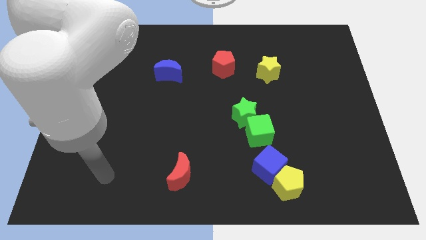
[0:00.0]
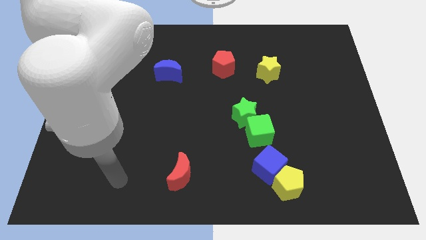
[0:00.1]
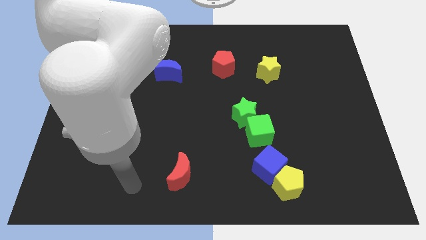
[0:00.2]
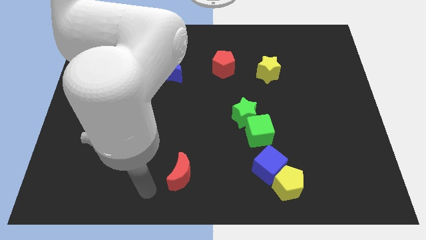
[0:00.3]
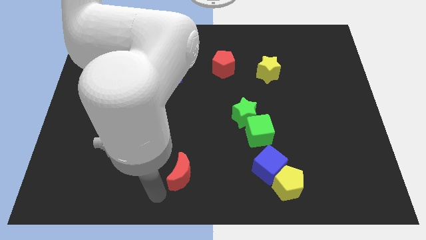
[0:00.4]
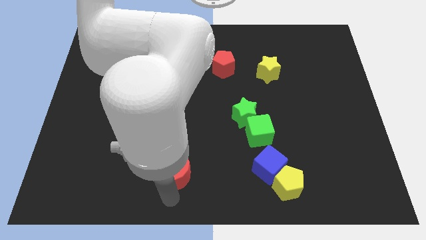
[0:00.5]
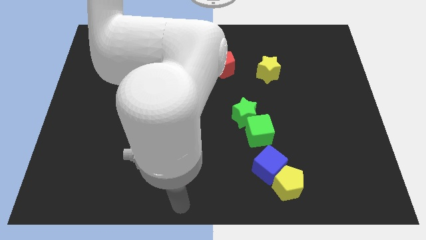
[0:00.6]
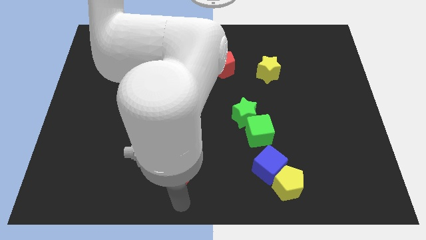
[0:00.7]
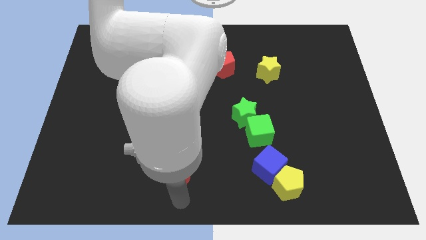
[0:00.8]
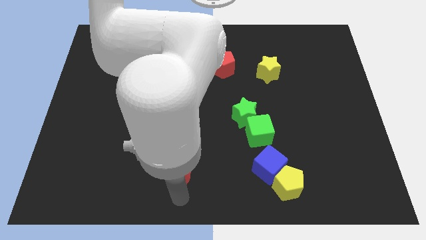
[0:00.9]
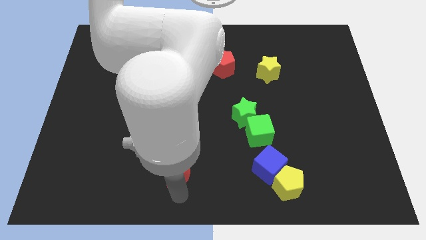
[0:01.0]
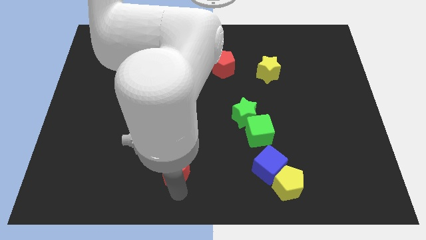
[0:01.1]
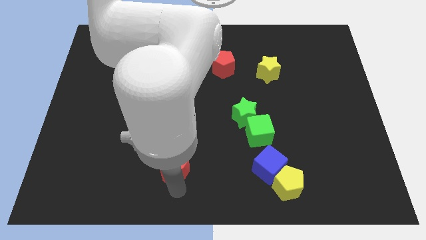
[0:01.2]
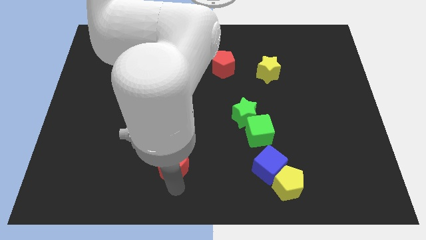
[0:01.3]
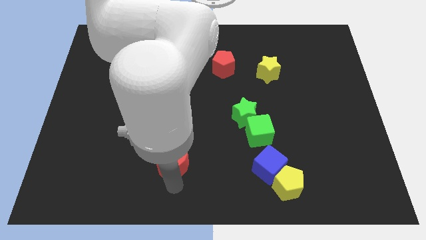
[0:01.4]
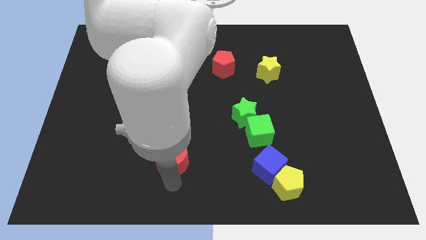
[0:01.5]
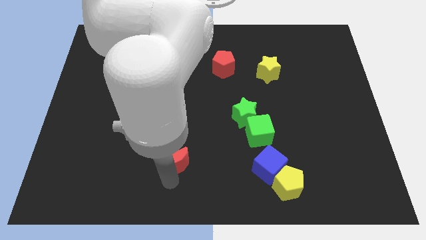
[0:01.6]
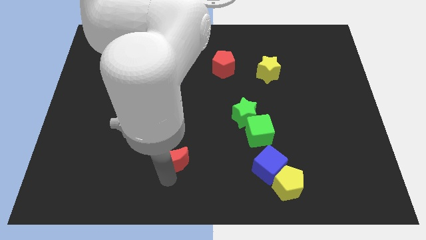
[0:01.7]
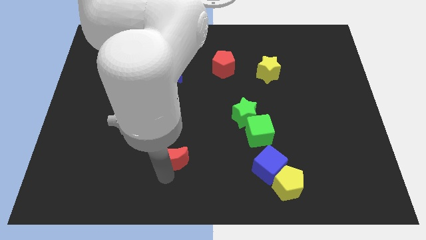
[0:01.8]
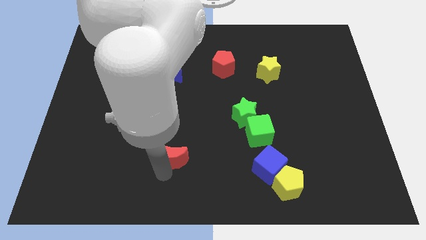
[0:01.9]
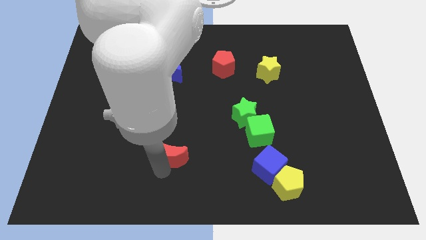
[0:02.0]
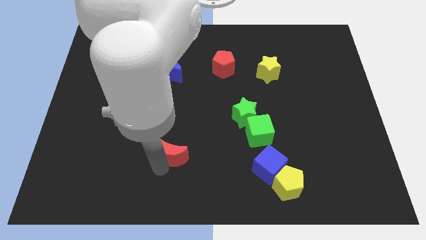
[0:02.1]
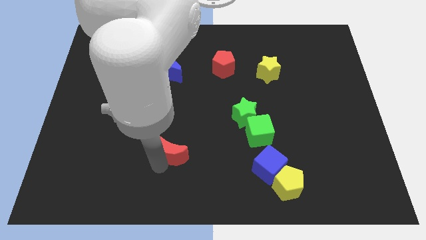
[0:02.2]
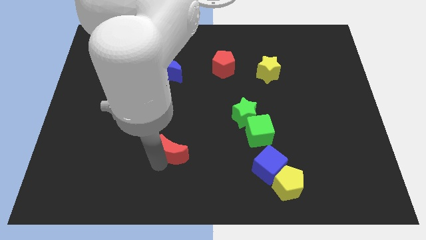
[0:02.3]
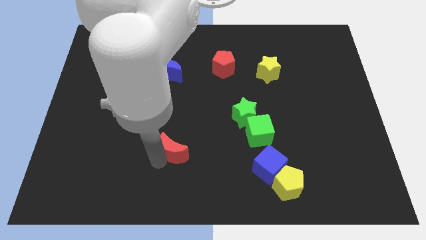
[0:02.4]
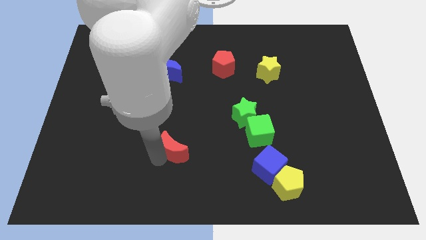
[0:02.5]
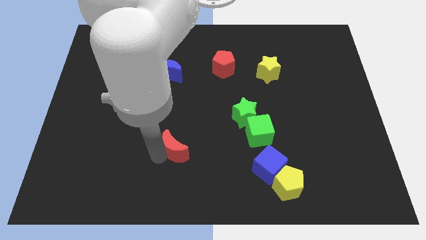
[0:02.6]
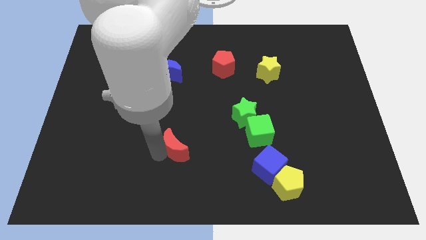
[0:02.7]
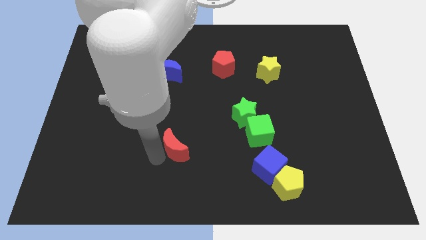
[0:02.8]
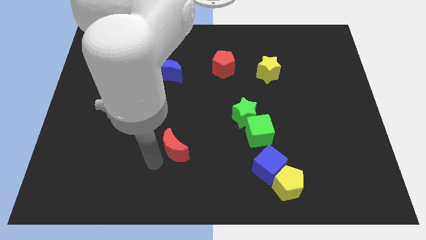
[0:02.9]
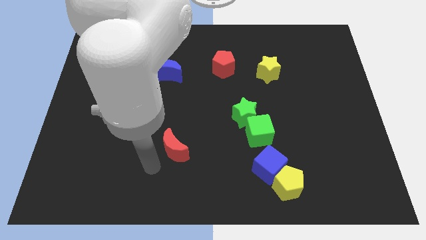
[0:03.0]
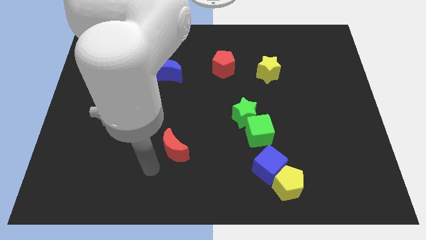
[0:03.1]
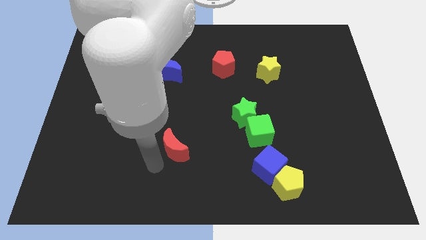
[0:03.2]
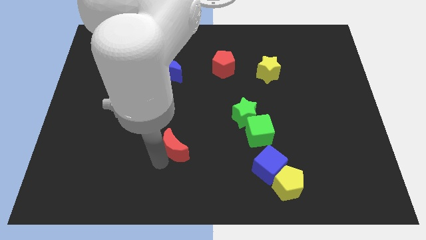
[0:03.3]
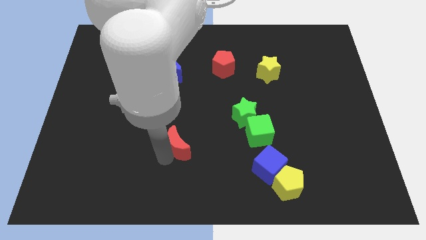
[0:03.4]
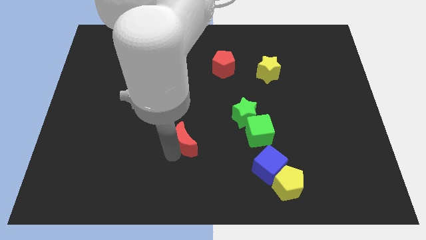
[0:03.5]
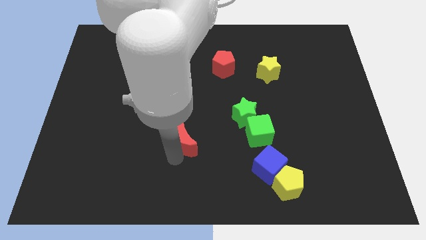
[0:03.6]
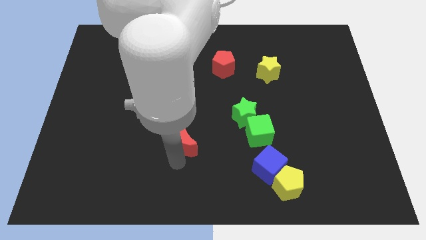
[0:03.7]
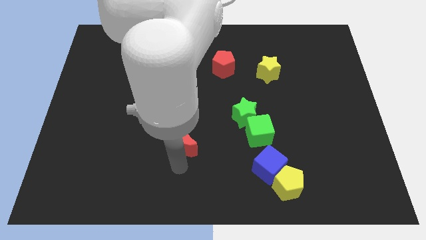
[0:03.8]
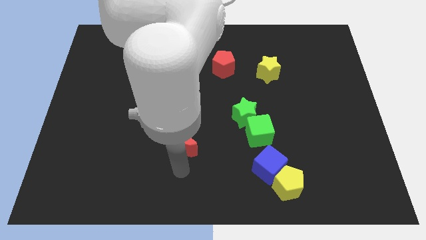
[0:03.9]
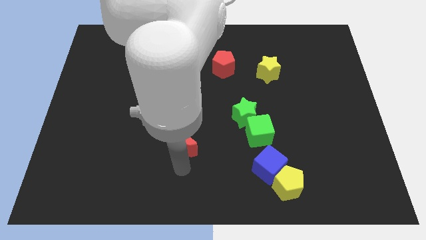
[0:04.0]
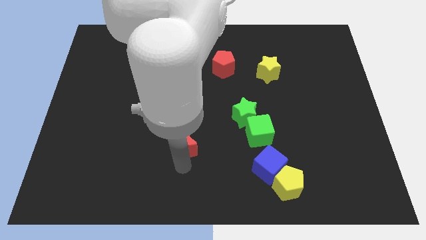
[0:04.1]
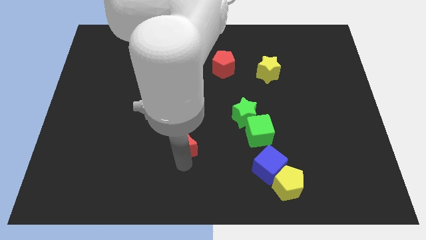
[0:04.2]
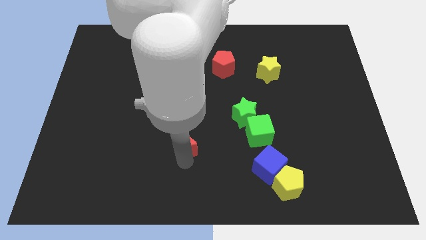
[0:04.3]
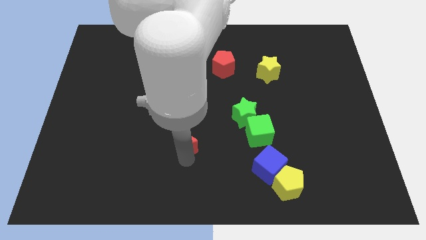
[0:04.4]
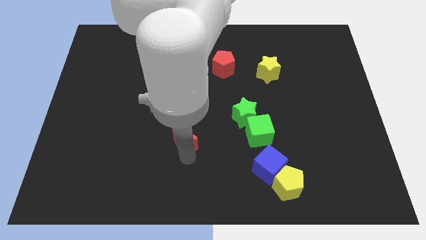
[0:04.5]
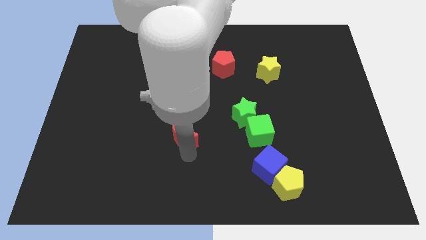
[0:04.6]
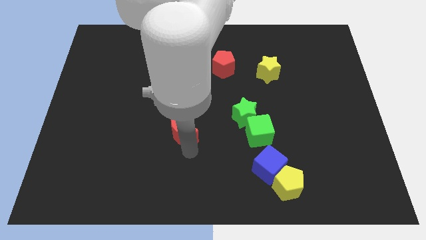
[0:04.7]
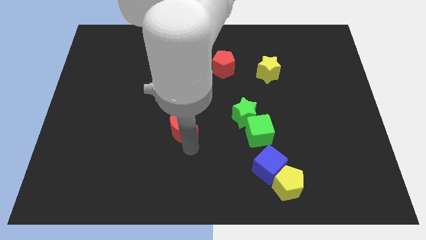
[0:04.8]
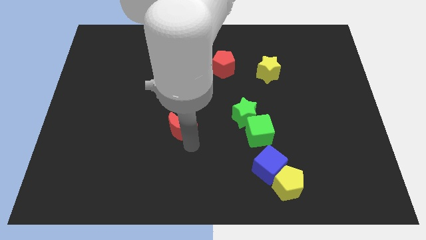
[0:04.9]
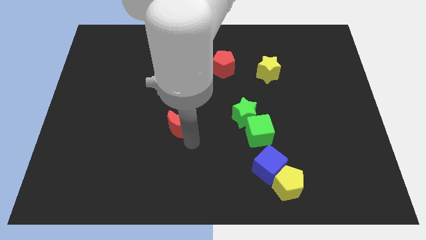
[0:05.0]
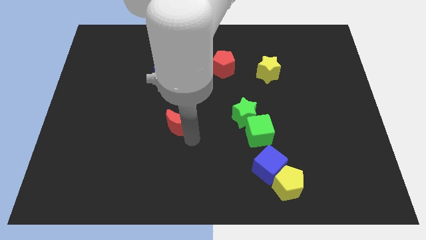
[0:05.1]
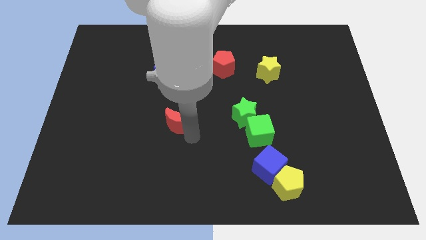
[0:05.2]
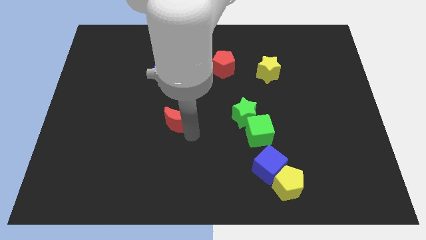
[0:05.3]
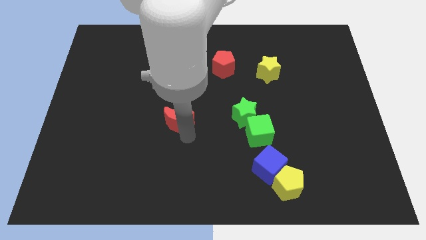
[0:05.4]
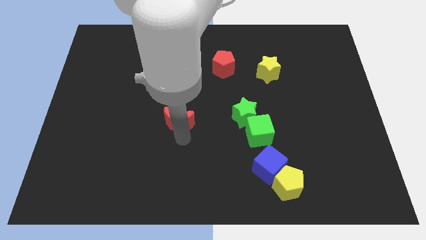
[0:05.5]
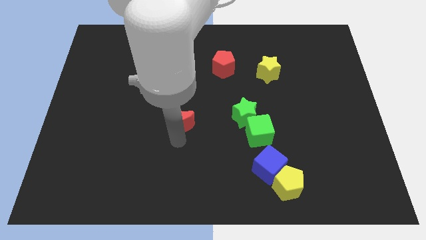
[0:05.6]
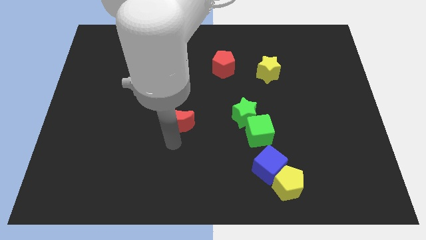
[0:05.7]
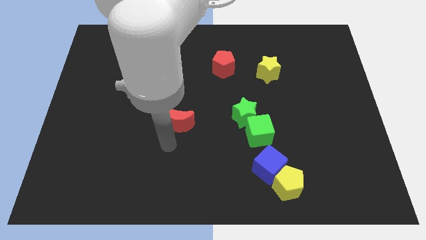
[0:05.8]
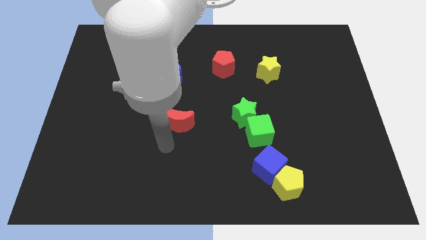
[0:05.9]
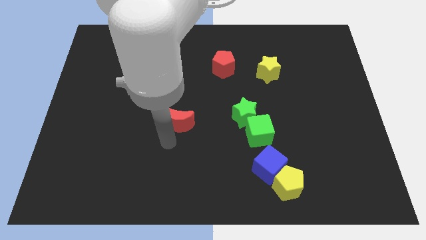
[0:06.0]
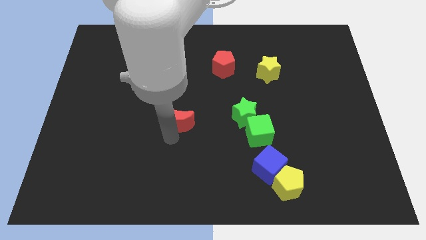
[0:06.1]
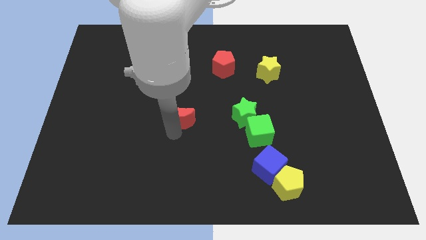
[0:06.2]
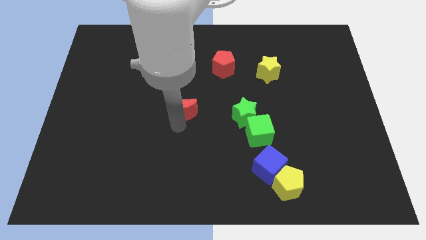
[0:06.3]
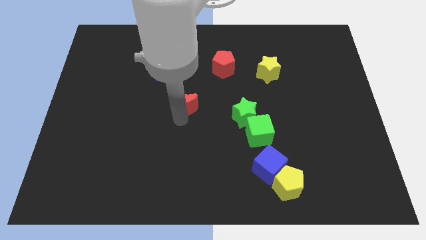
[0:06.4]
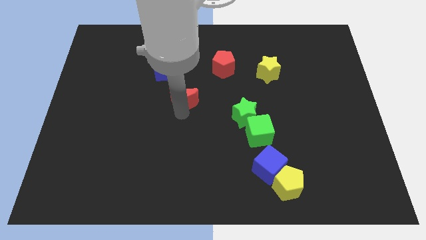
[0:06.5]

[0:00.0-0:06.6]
move the red moon upwards

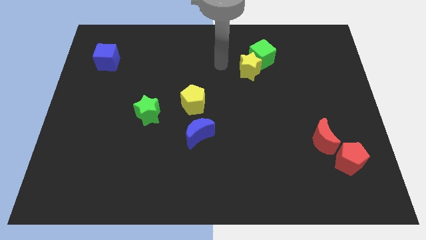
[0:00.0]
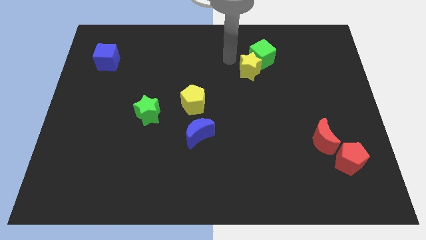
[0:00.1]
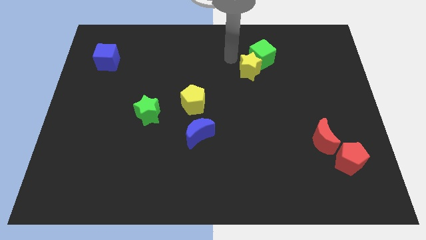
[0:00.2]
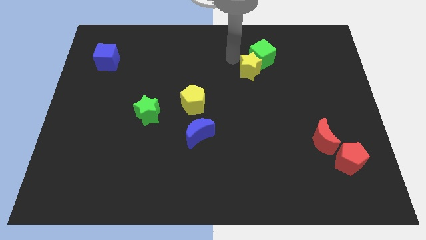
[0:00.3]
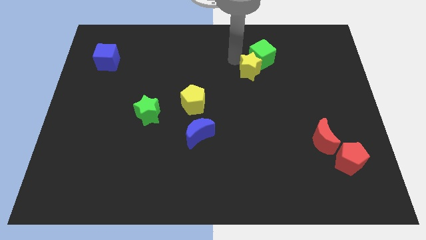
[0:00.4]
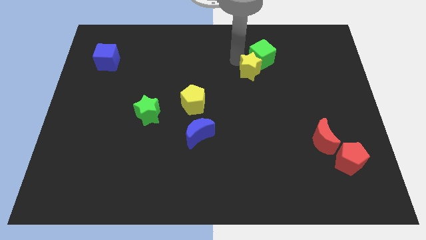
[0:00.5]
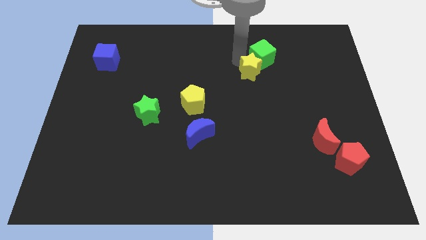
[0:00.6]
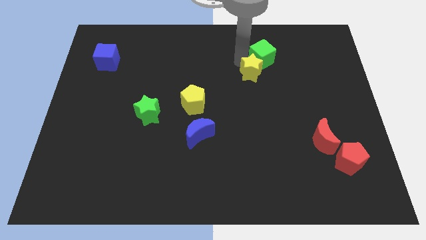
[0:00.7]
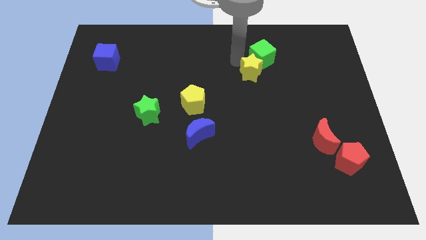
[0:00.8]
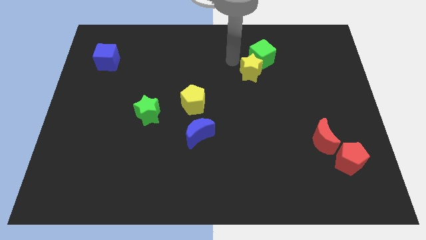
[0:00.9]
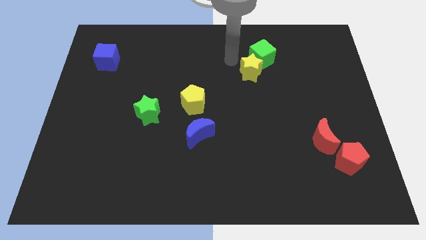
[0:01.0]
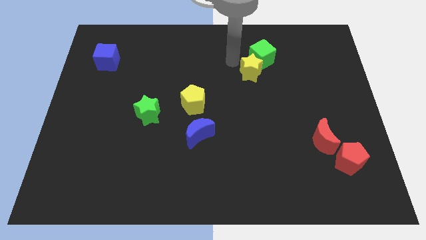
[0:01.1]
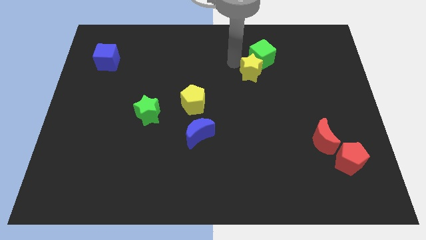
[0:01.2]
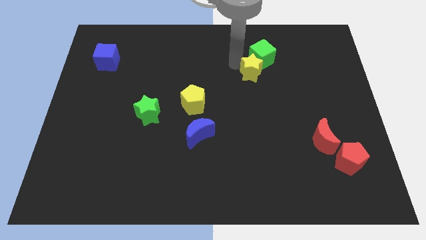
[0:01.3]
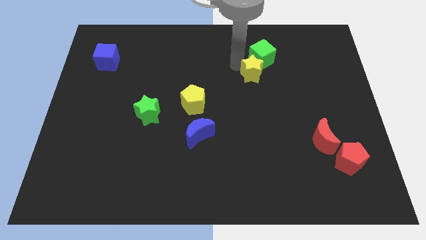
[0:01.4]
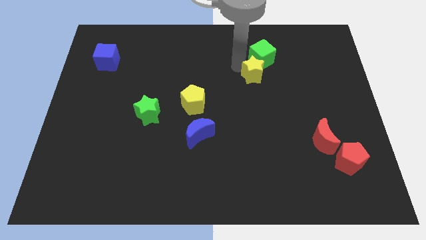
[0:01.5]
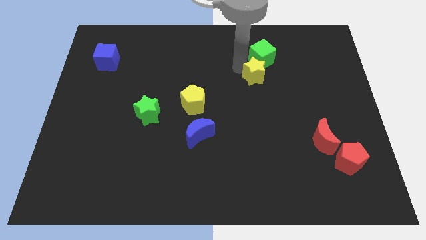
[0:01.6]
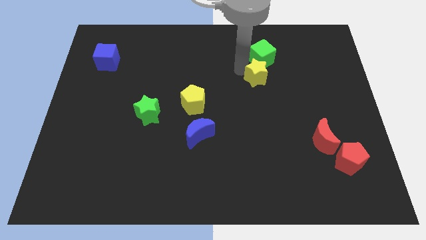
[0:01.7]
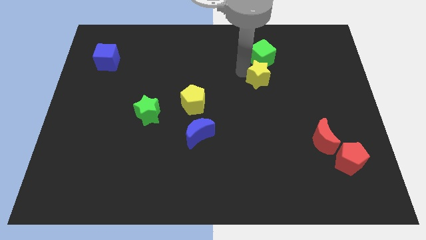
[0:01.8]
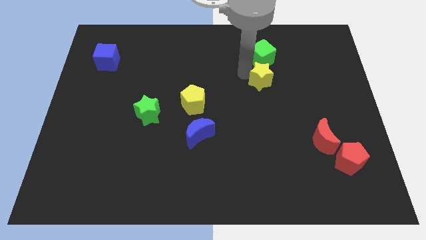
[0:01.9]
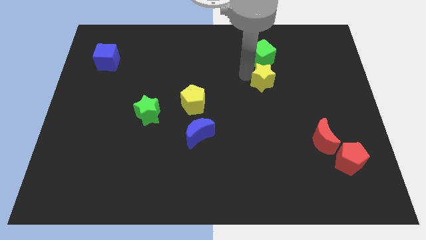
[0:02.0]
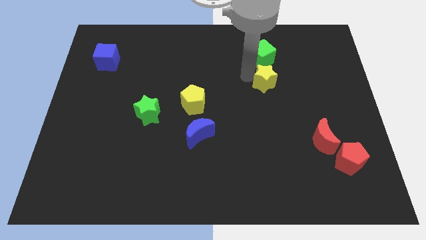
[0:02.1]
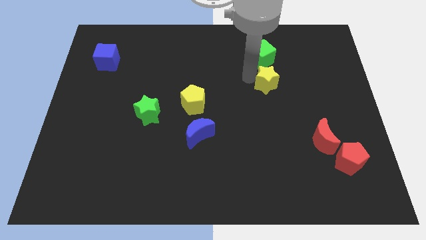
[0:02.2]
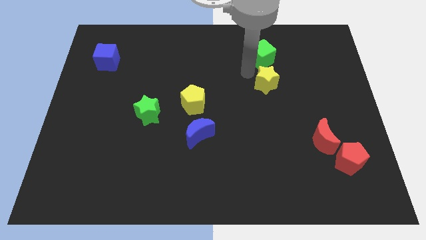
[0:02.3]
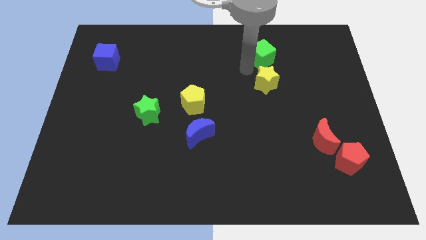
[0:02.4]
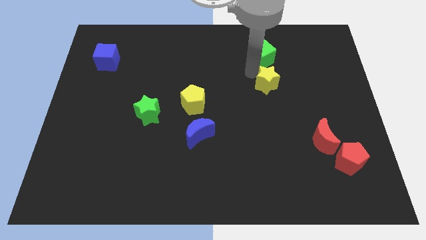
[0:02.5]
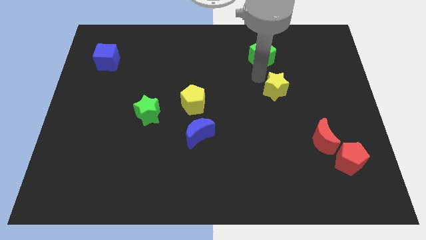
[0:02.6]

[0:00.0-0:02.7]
push the yellow star downwards and then to the right a little bit
